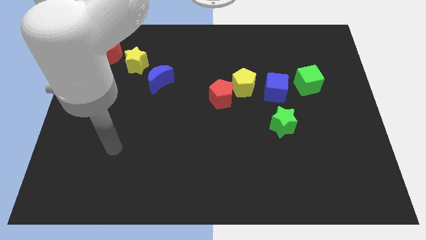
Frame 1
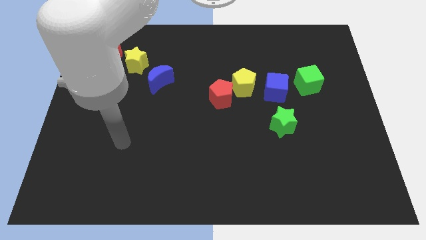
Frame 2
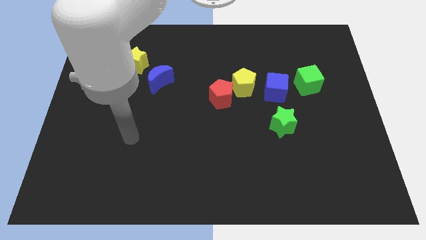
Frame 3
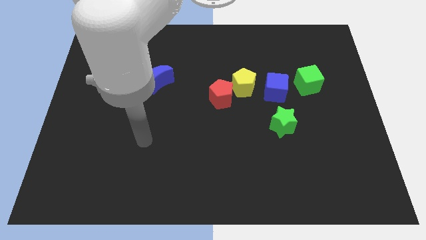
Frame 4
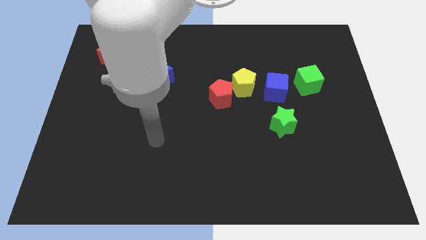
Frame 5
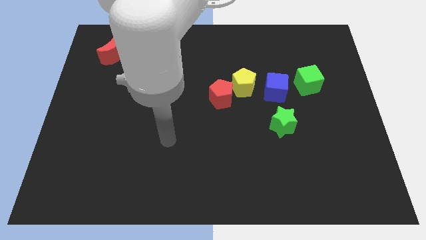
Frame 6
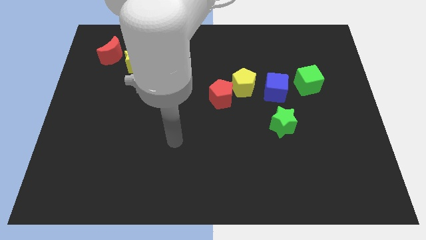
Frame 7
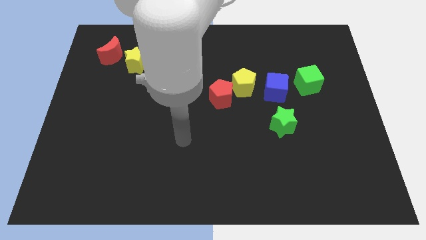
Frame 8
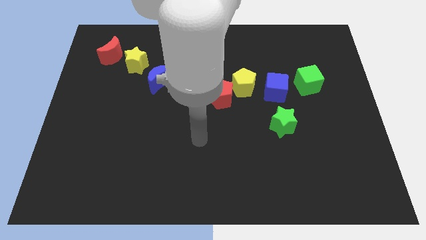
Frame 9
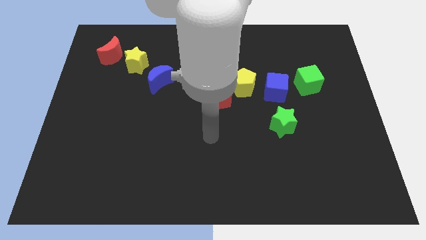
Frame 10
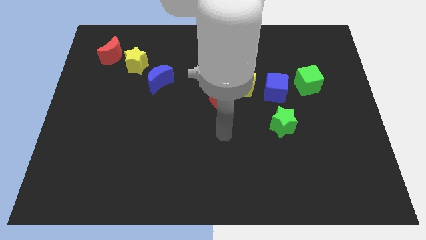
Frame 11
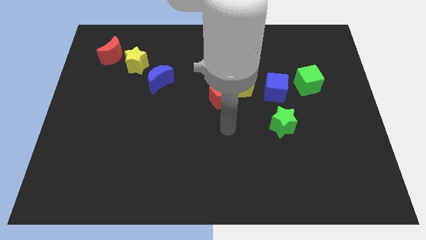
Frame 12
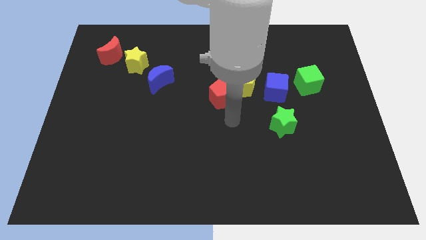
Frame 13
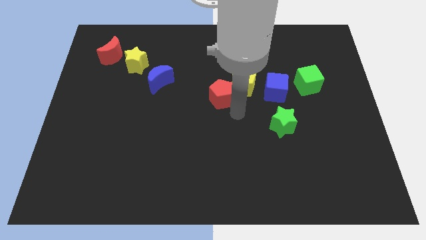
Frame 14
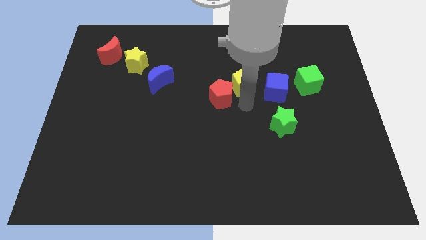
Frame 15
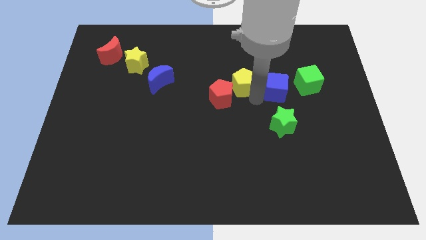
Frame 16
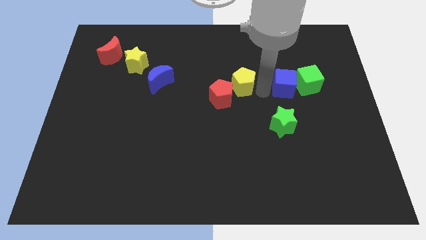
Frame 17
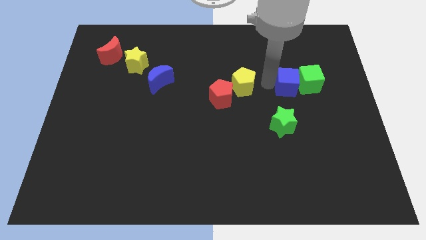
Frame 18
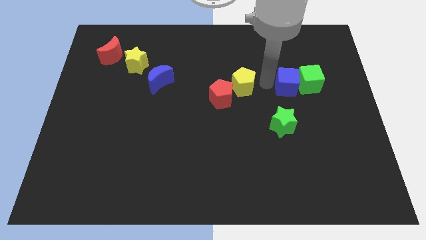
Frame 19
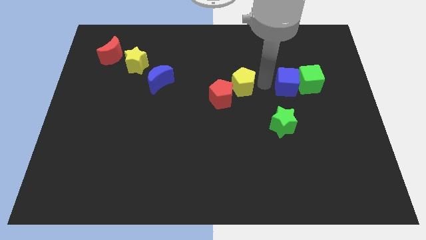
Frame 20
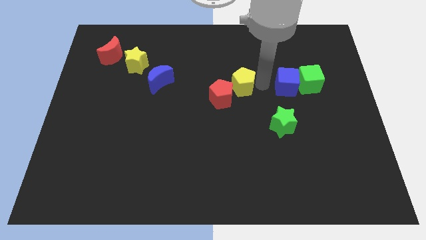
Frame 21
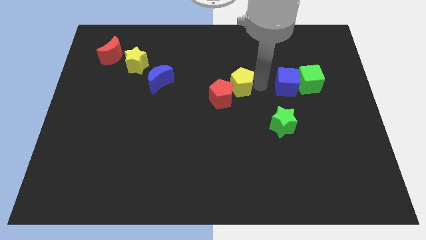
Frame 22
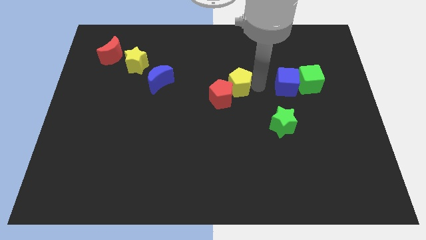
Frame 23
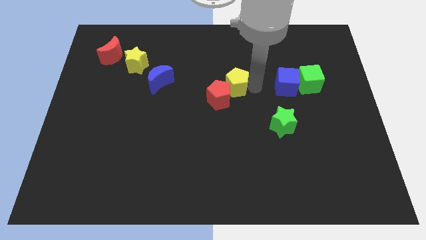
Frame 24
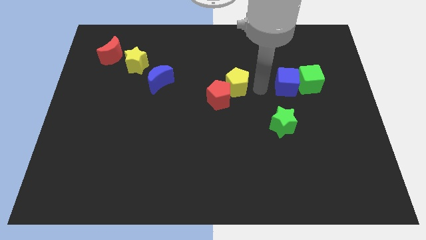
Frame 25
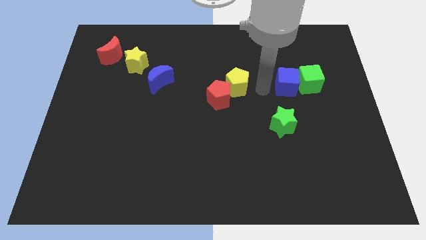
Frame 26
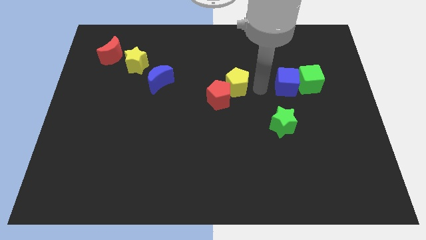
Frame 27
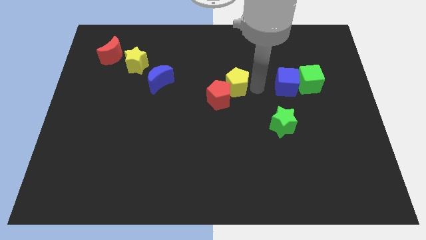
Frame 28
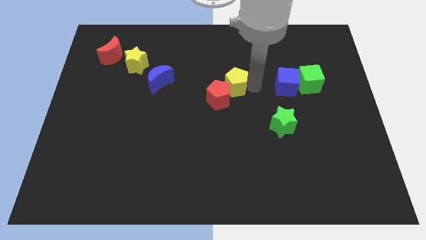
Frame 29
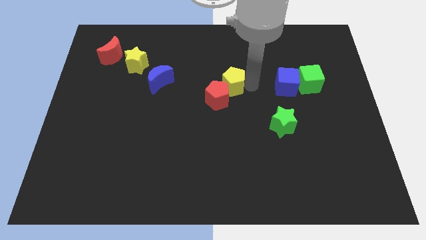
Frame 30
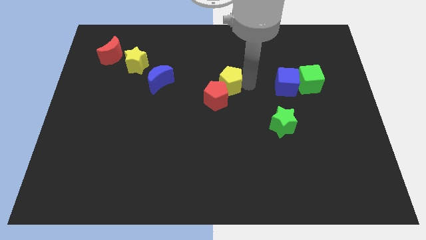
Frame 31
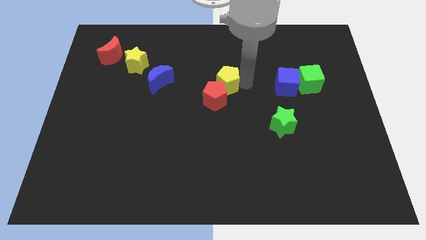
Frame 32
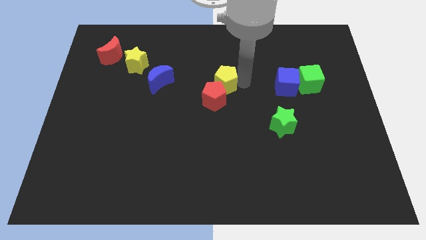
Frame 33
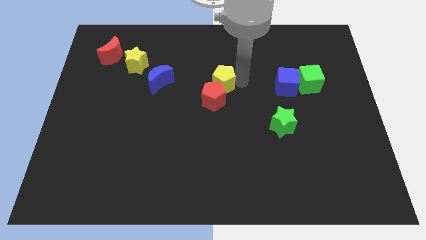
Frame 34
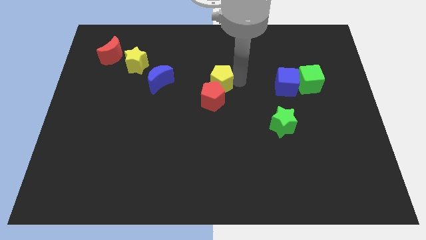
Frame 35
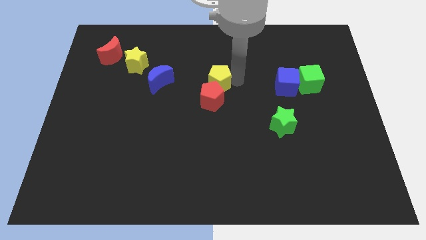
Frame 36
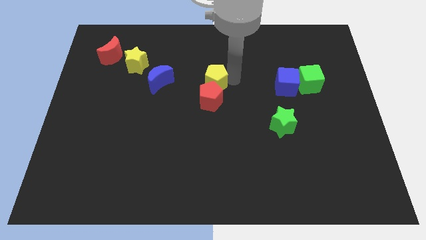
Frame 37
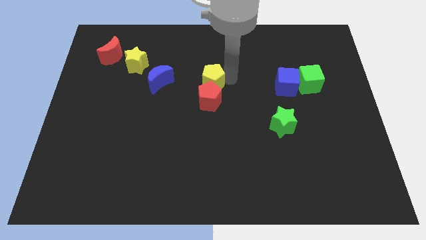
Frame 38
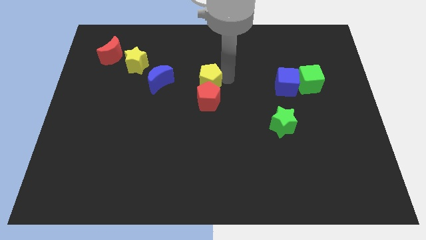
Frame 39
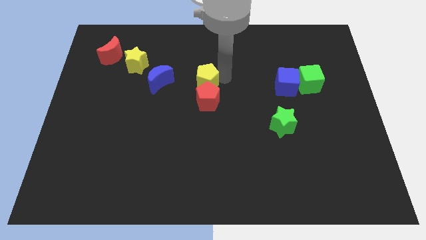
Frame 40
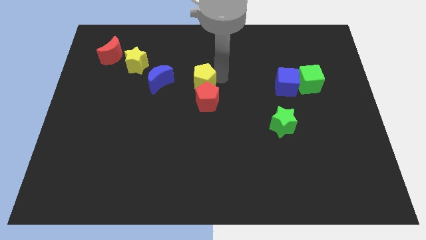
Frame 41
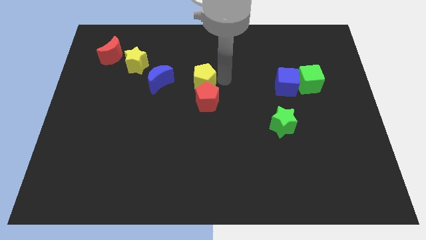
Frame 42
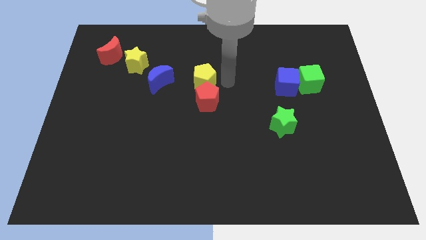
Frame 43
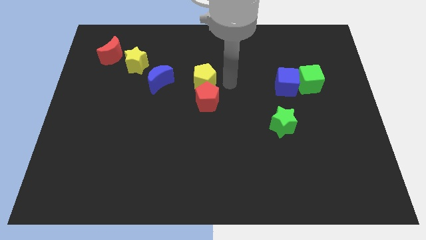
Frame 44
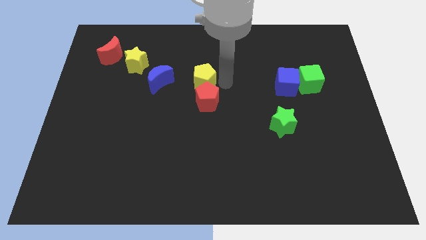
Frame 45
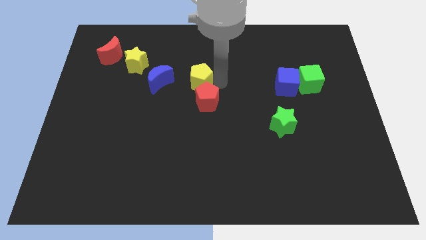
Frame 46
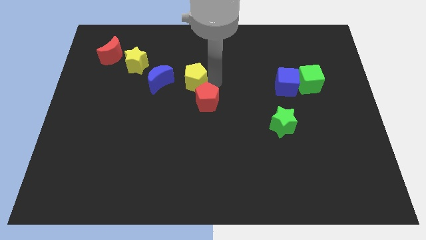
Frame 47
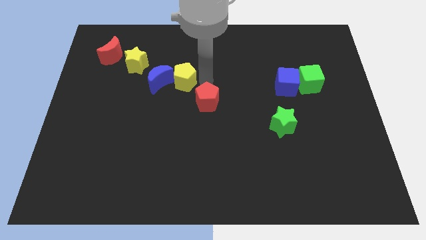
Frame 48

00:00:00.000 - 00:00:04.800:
slide the yellow pentagon towards the blue moon

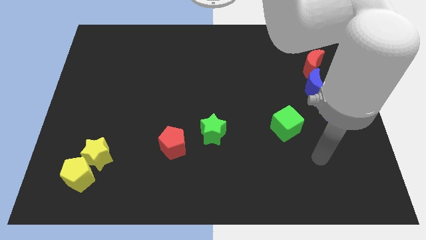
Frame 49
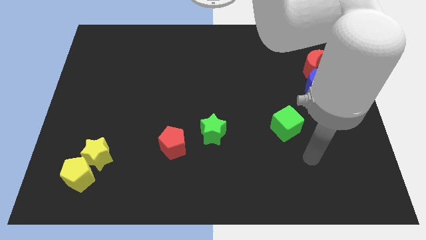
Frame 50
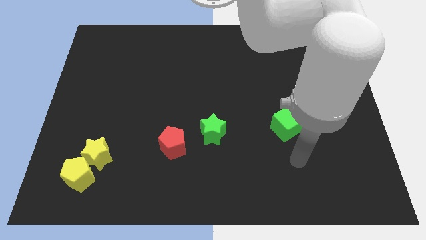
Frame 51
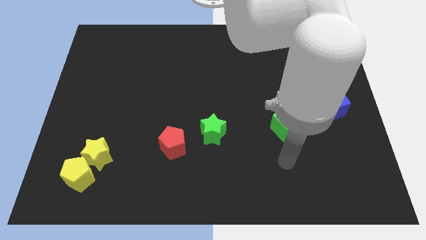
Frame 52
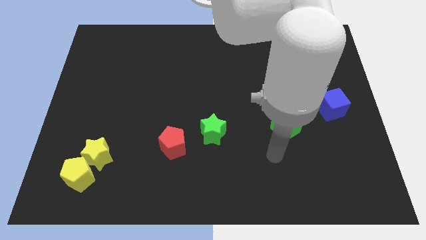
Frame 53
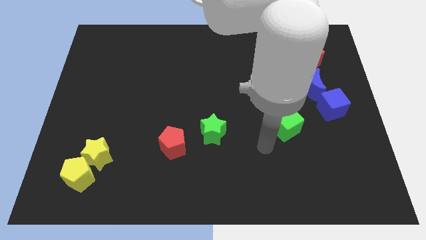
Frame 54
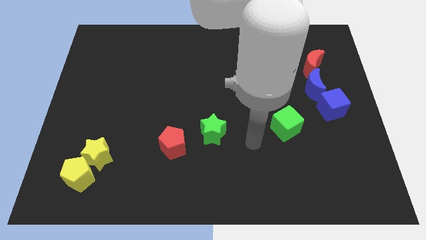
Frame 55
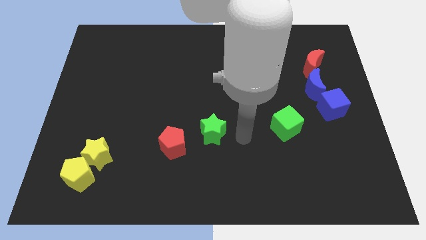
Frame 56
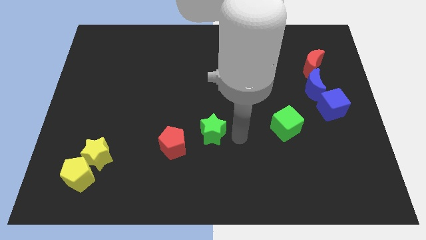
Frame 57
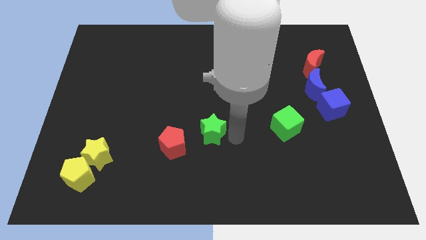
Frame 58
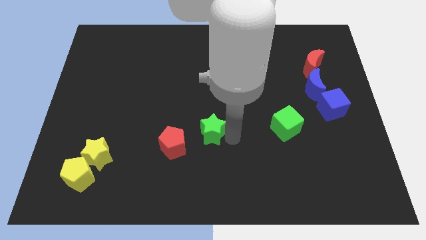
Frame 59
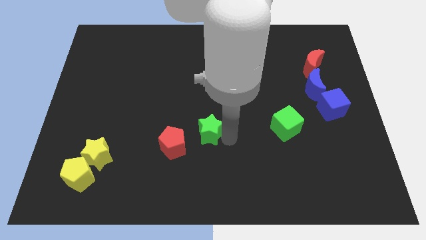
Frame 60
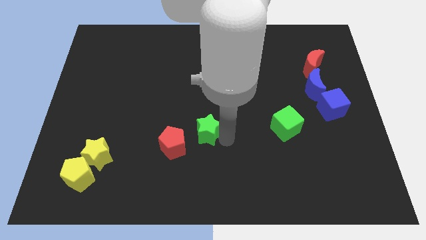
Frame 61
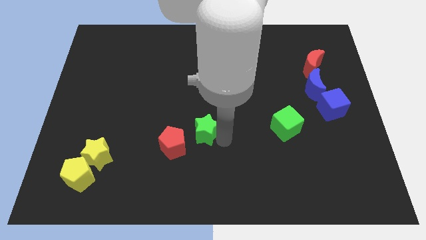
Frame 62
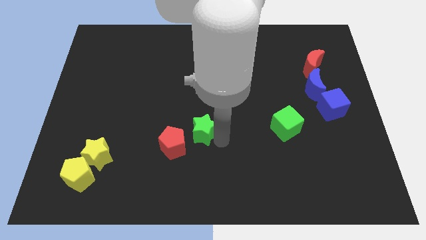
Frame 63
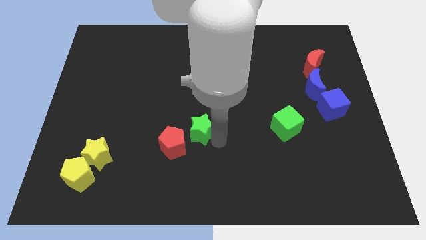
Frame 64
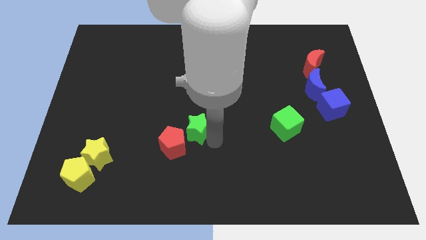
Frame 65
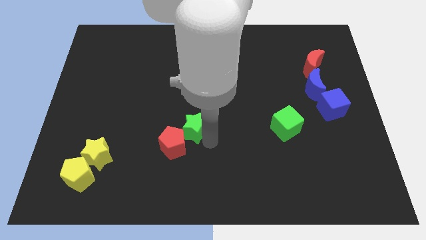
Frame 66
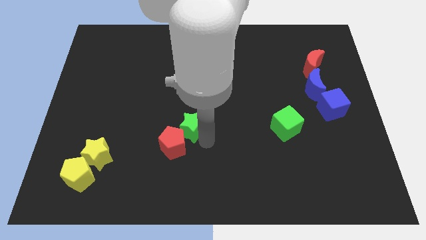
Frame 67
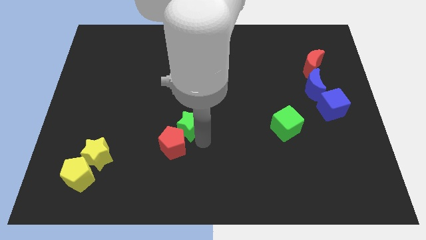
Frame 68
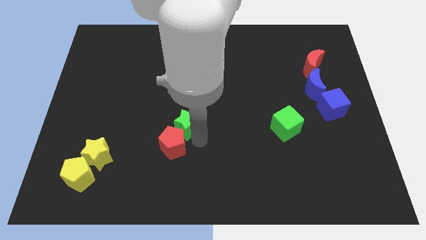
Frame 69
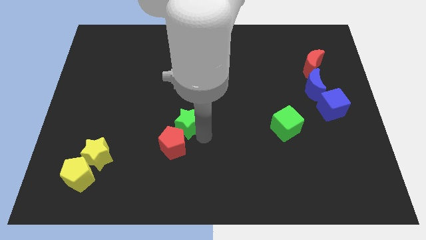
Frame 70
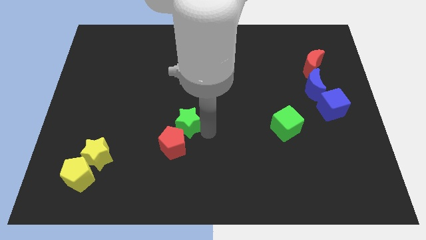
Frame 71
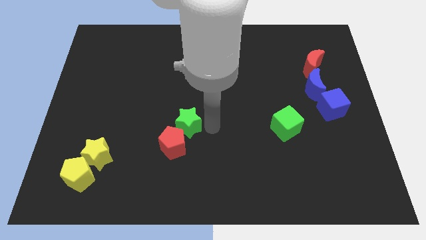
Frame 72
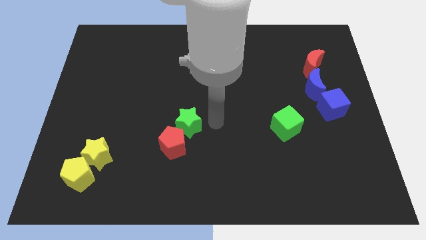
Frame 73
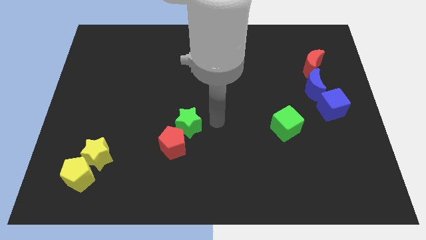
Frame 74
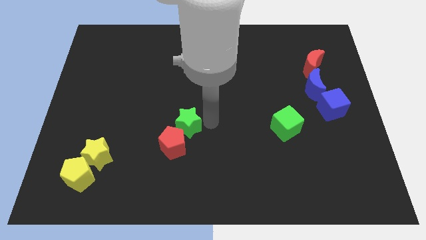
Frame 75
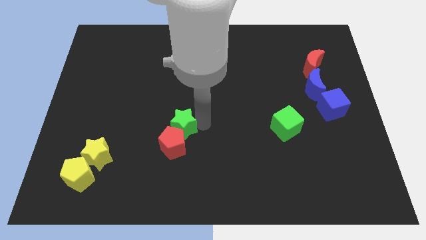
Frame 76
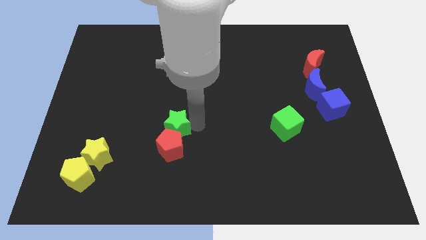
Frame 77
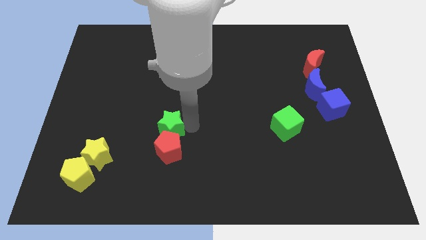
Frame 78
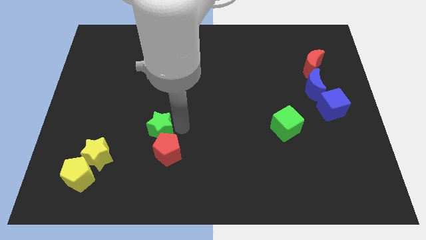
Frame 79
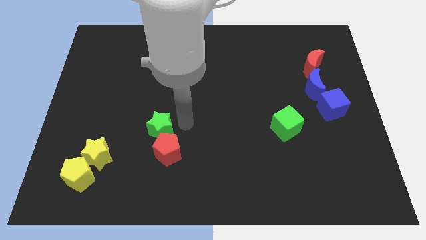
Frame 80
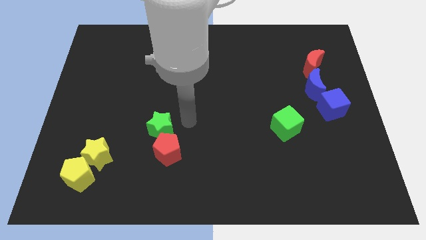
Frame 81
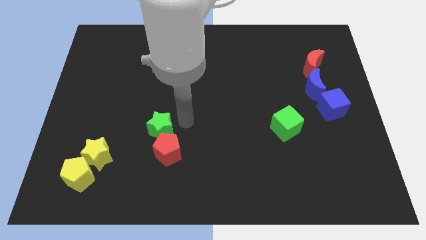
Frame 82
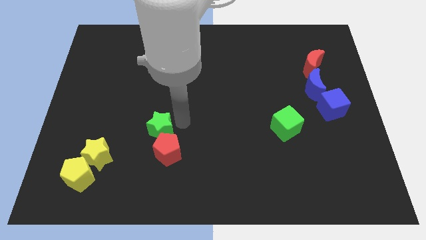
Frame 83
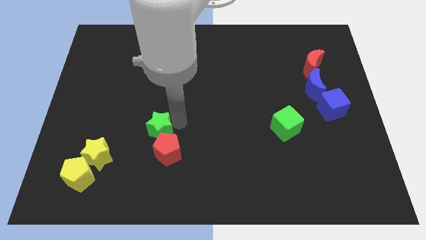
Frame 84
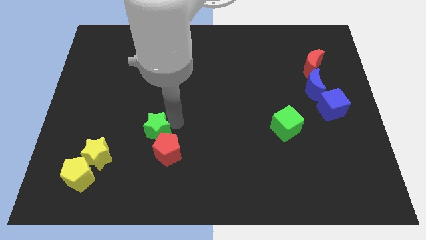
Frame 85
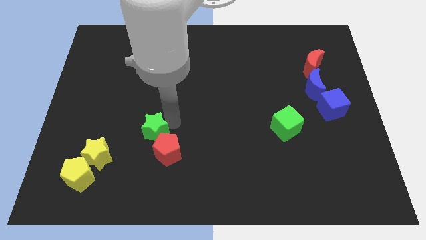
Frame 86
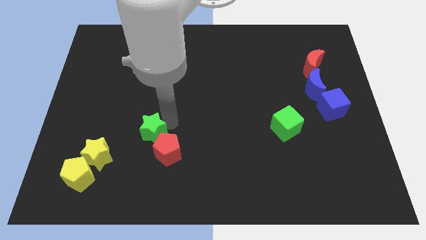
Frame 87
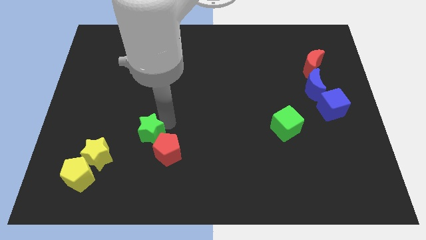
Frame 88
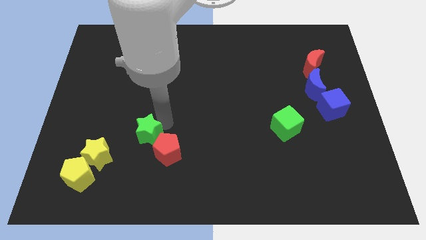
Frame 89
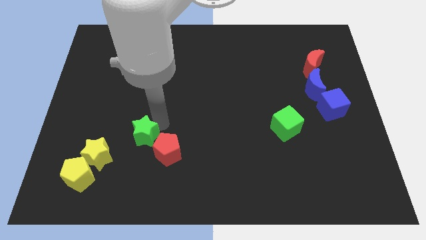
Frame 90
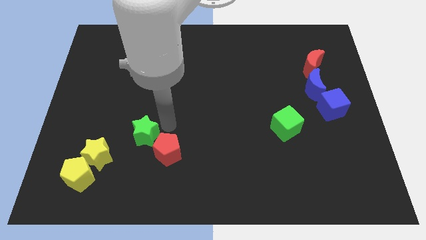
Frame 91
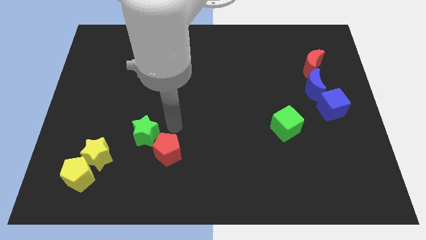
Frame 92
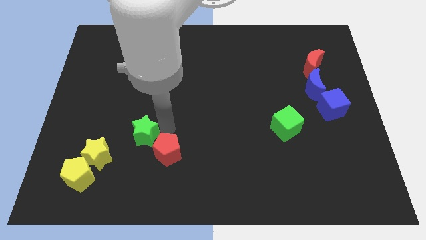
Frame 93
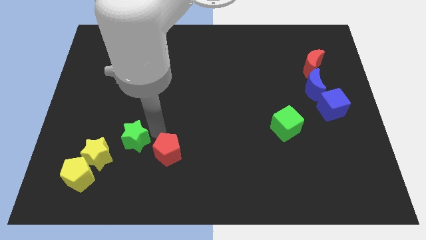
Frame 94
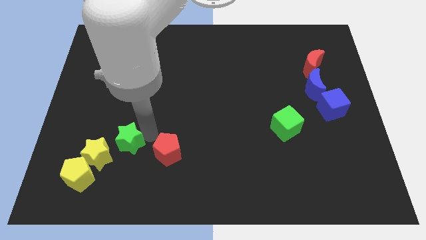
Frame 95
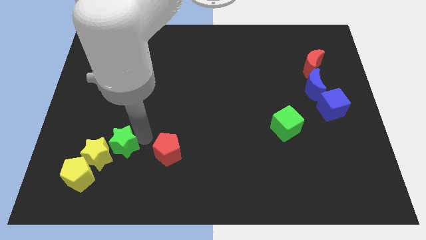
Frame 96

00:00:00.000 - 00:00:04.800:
slide the green star towards the yellow star
